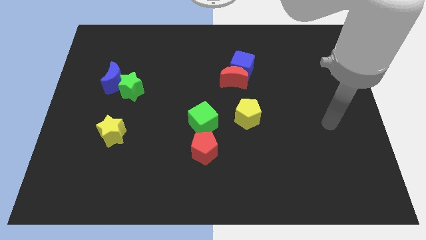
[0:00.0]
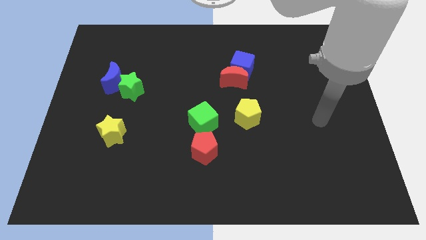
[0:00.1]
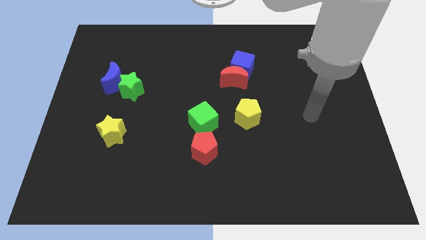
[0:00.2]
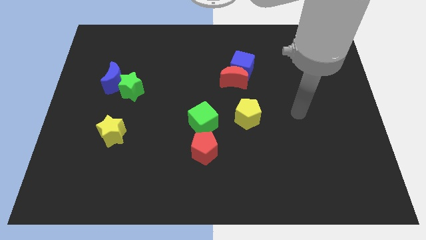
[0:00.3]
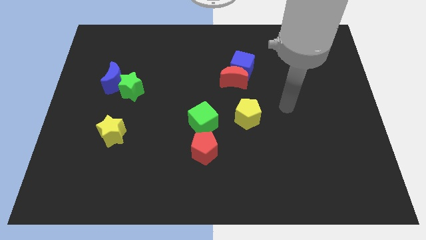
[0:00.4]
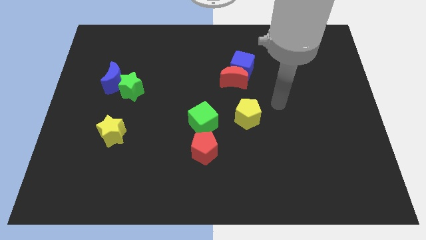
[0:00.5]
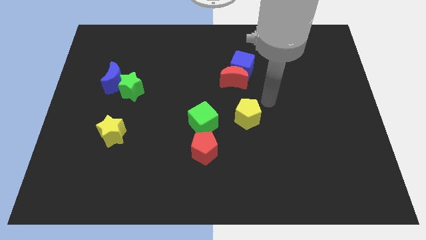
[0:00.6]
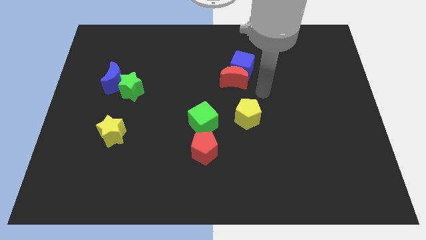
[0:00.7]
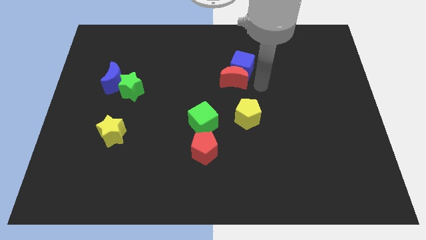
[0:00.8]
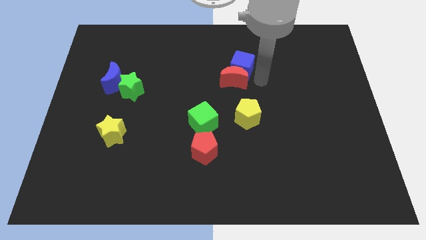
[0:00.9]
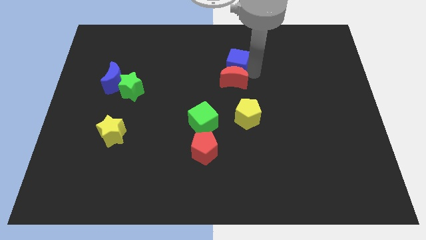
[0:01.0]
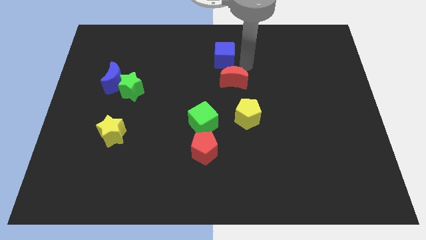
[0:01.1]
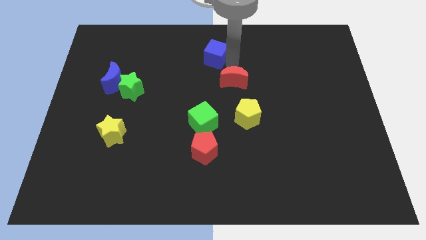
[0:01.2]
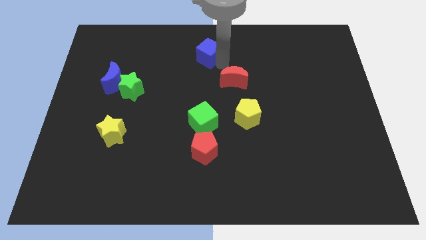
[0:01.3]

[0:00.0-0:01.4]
pull the red moon apart from the blue cube

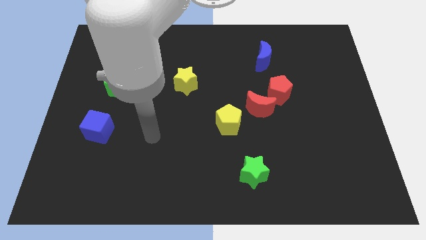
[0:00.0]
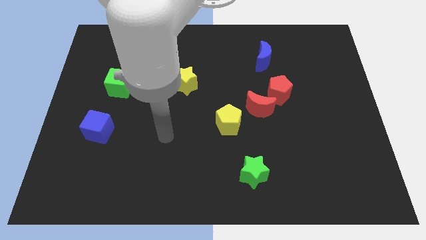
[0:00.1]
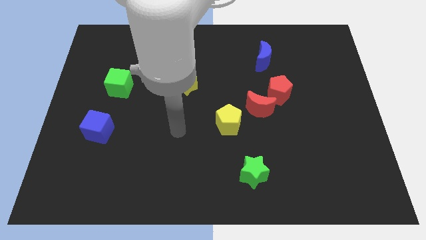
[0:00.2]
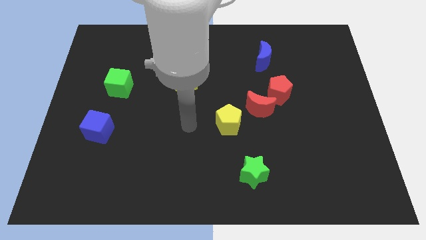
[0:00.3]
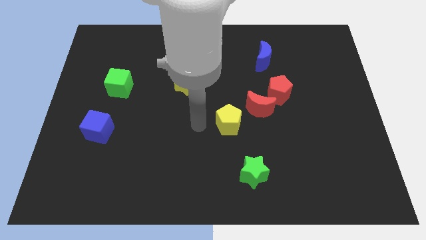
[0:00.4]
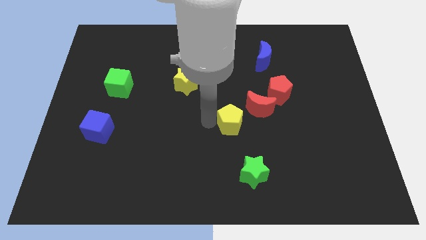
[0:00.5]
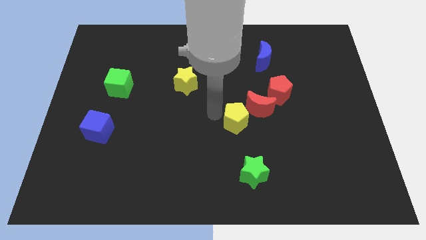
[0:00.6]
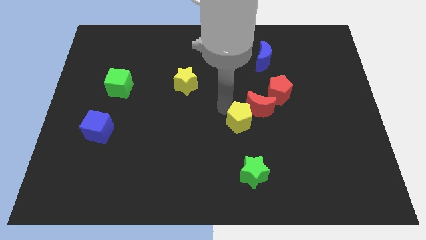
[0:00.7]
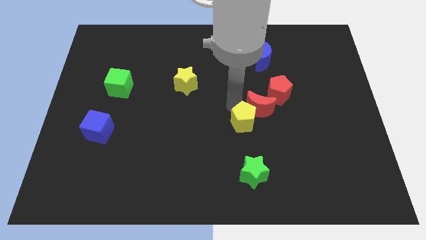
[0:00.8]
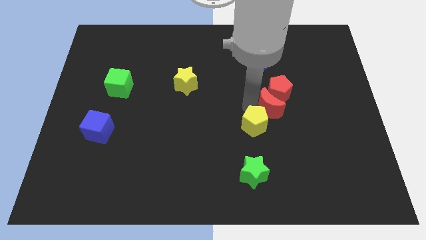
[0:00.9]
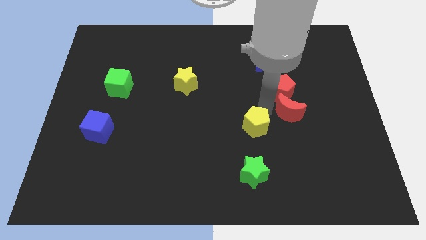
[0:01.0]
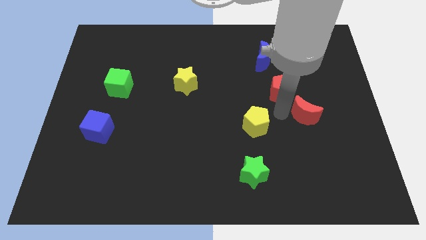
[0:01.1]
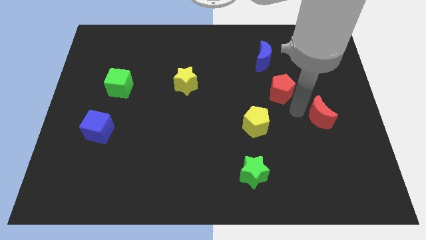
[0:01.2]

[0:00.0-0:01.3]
separate the red pentagon from the red moon

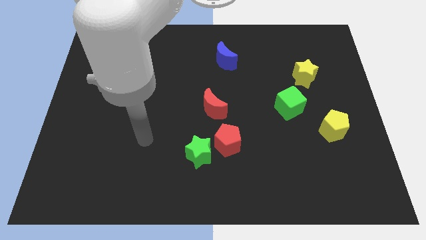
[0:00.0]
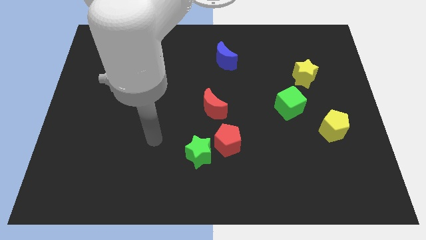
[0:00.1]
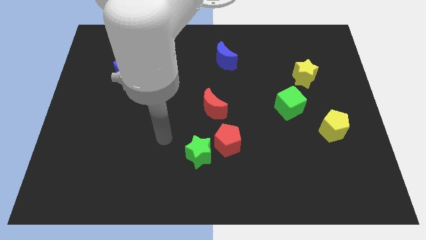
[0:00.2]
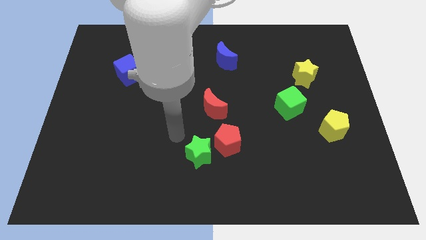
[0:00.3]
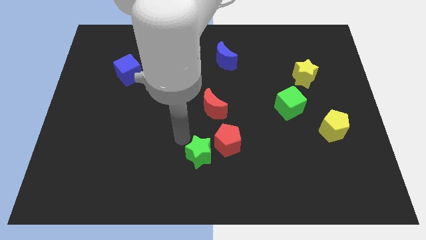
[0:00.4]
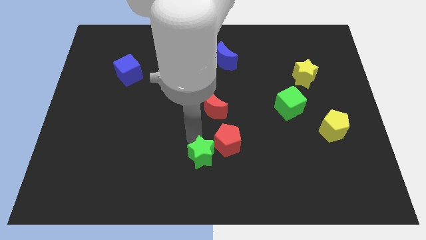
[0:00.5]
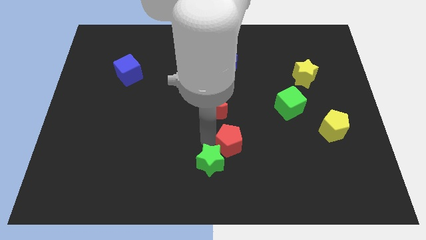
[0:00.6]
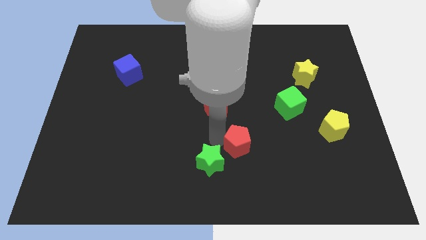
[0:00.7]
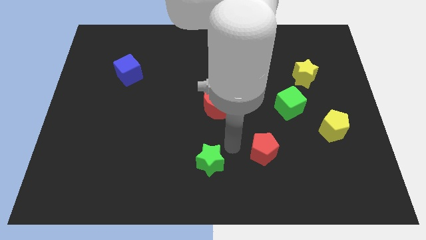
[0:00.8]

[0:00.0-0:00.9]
pull the green star apart from the red pentagon

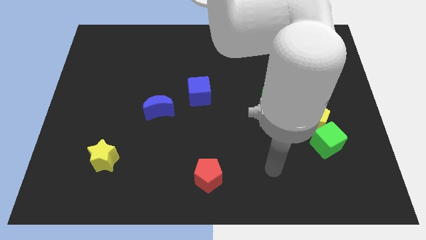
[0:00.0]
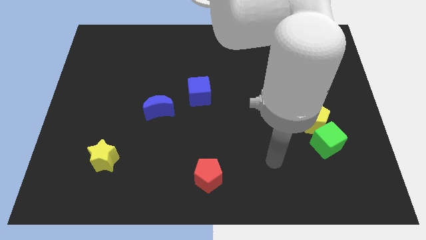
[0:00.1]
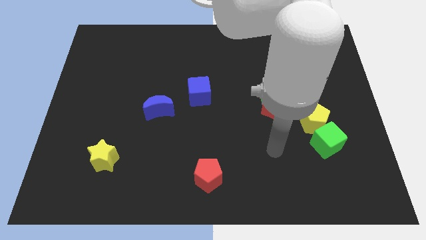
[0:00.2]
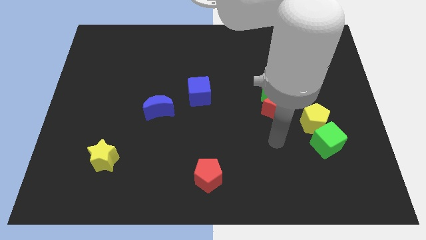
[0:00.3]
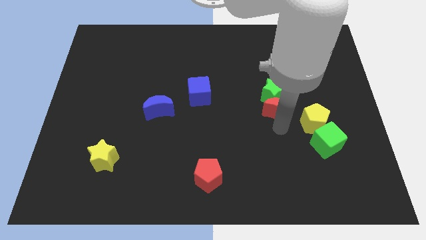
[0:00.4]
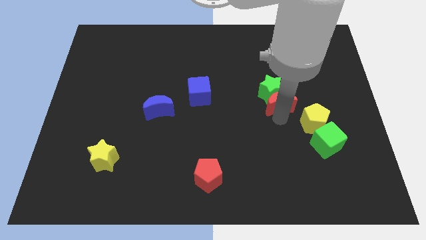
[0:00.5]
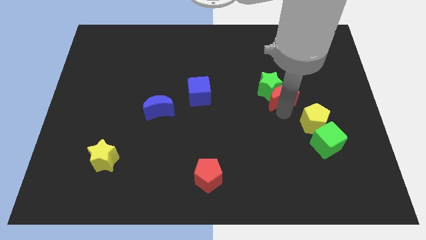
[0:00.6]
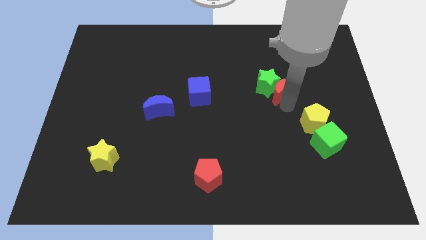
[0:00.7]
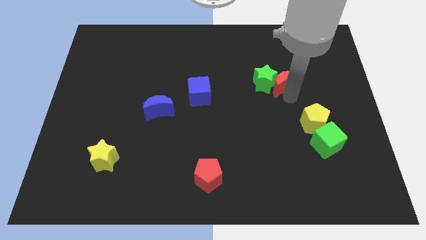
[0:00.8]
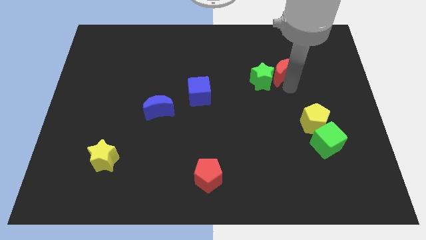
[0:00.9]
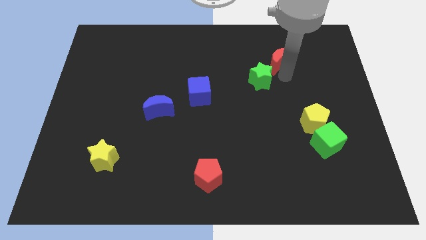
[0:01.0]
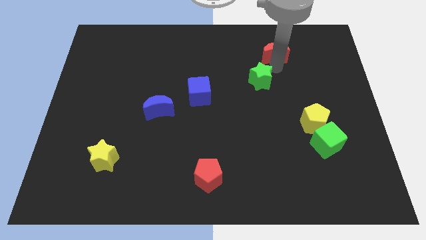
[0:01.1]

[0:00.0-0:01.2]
pull the green star apart from the red moon

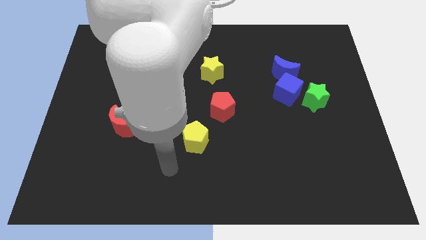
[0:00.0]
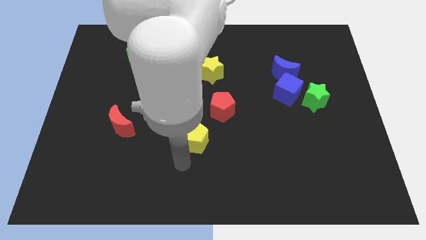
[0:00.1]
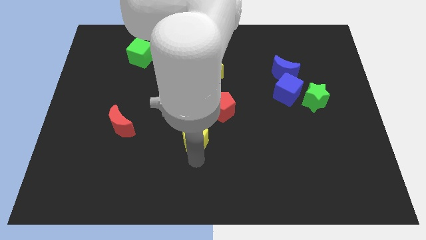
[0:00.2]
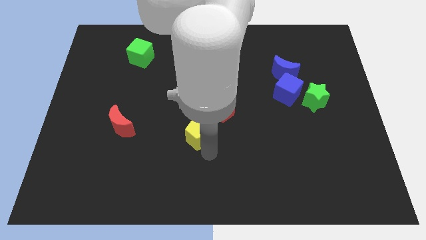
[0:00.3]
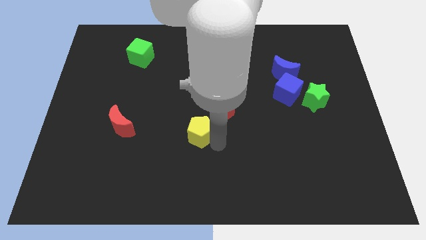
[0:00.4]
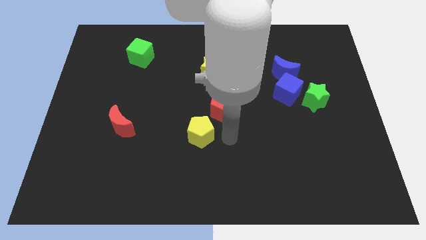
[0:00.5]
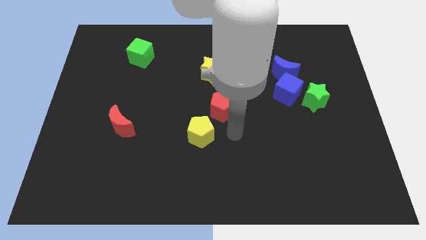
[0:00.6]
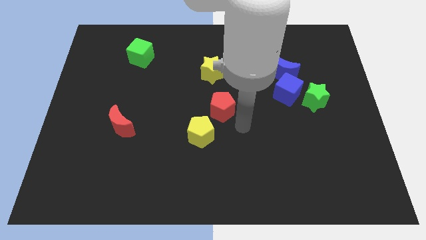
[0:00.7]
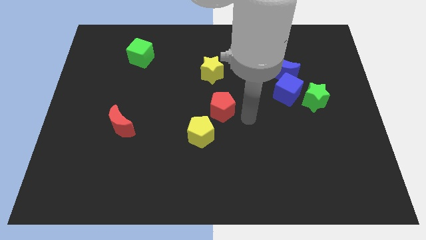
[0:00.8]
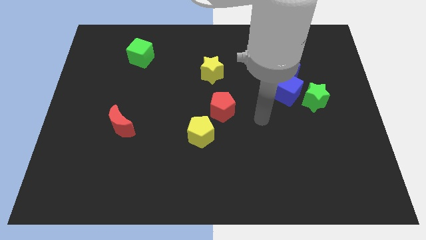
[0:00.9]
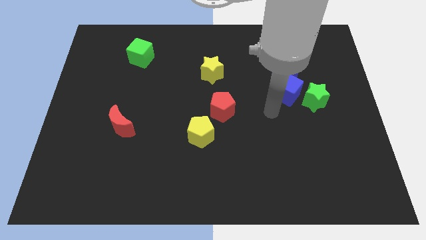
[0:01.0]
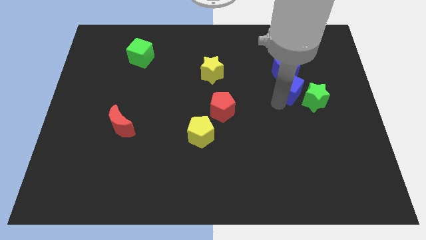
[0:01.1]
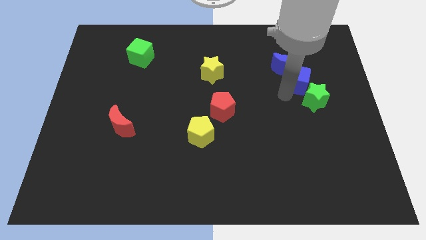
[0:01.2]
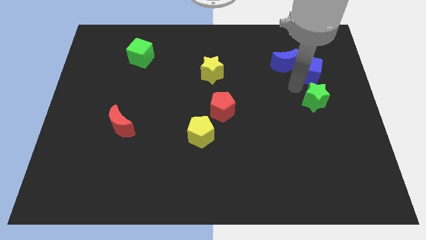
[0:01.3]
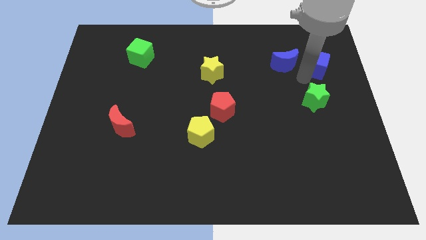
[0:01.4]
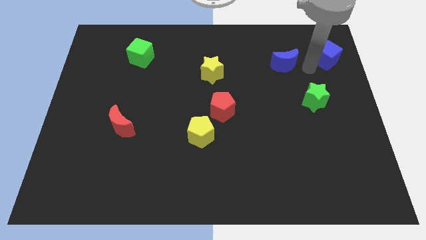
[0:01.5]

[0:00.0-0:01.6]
separate the blue moon from the blue cube

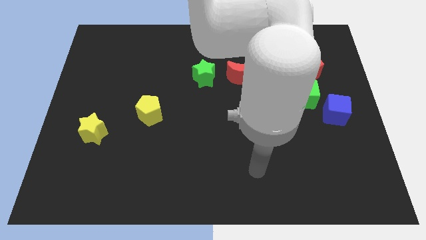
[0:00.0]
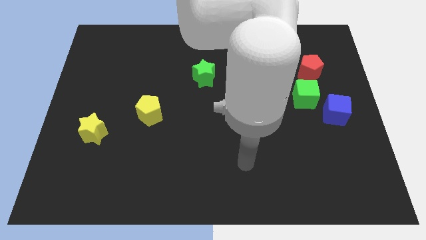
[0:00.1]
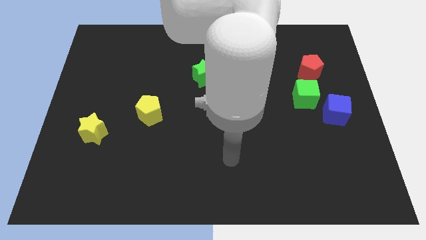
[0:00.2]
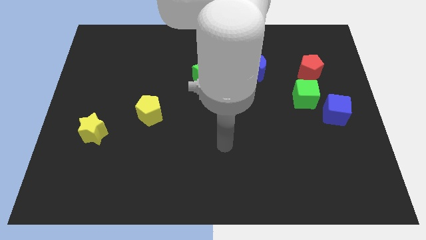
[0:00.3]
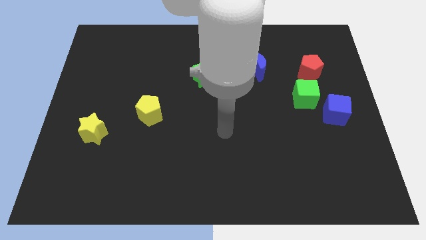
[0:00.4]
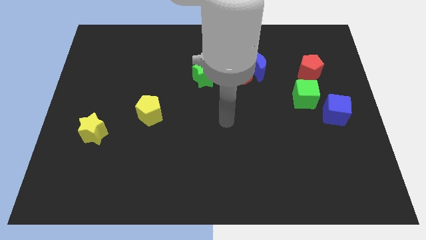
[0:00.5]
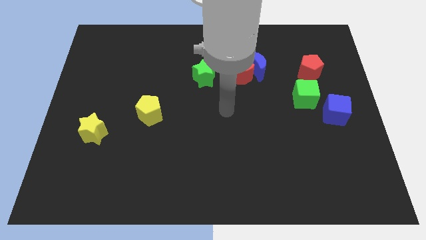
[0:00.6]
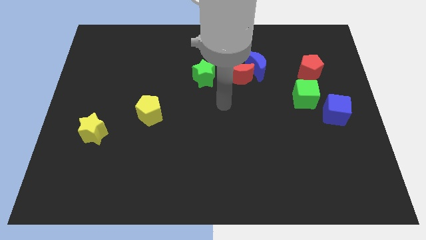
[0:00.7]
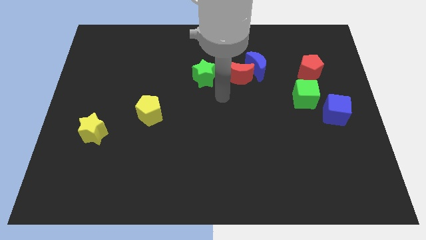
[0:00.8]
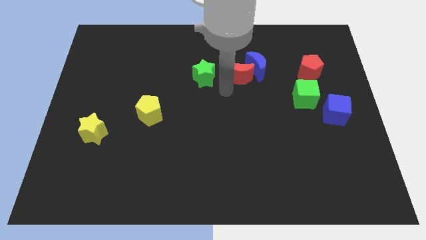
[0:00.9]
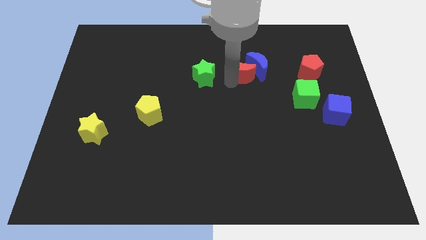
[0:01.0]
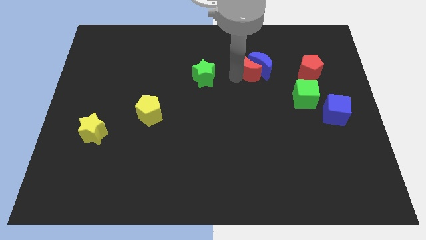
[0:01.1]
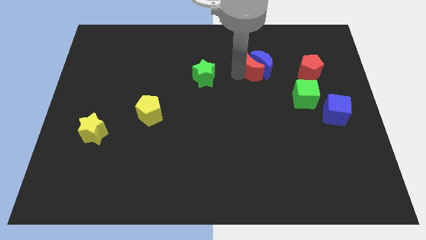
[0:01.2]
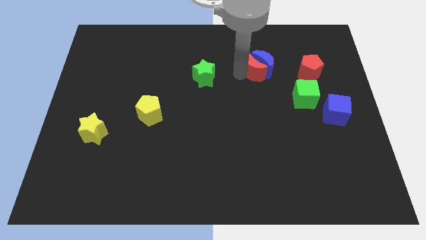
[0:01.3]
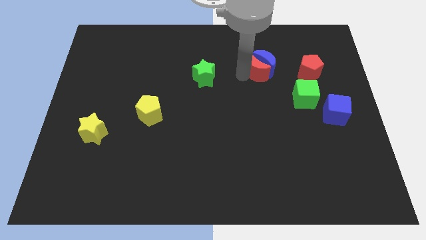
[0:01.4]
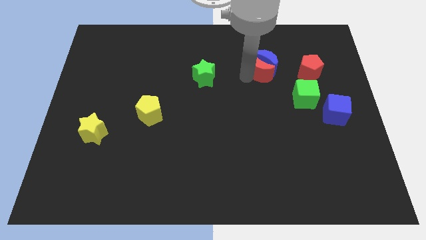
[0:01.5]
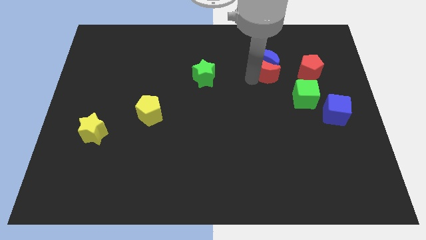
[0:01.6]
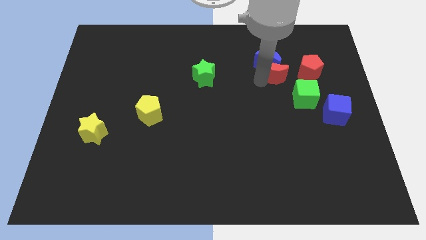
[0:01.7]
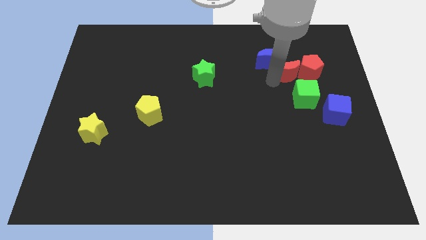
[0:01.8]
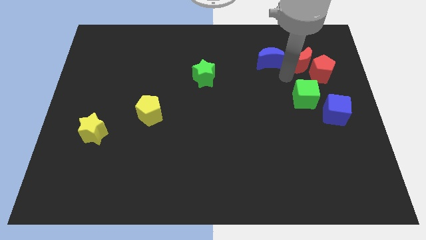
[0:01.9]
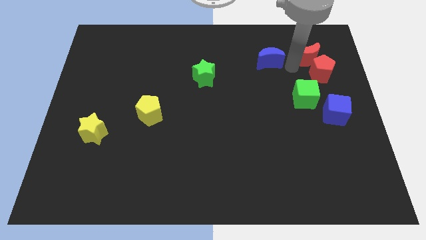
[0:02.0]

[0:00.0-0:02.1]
separate the blue moon from the red moon

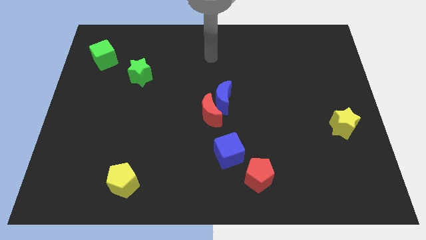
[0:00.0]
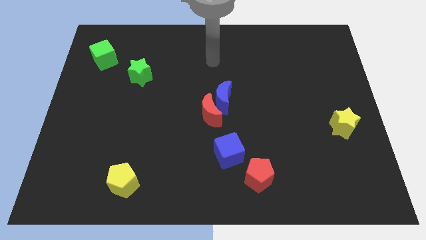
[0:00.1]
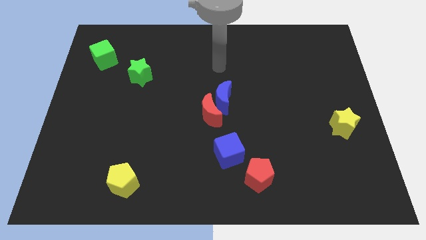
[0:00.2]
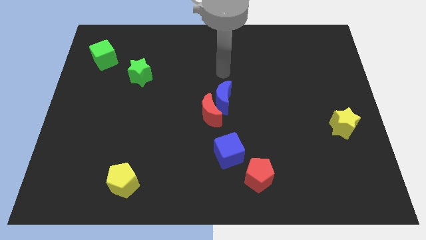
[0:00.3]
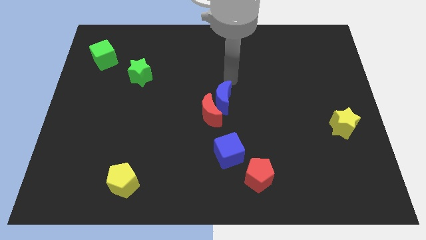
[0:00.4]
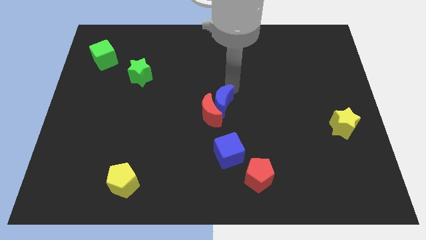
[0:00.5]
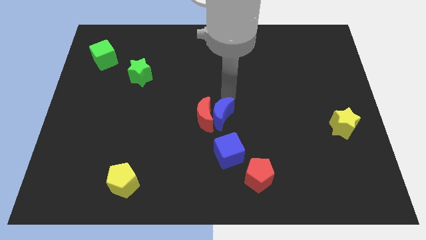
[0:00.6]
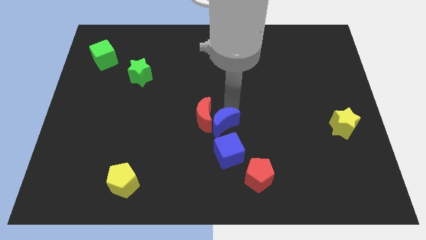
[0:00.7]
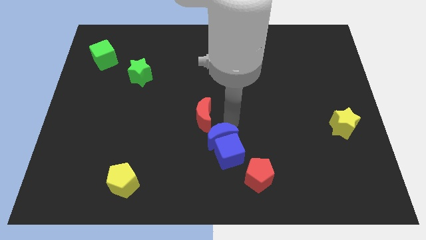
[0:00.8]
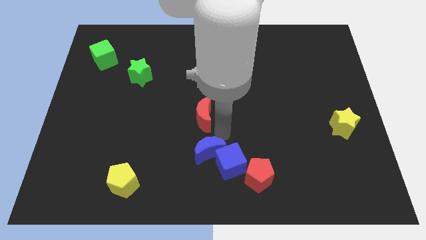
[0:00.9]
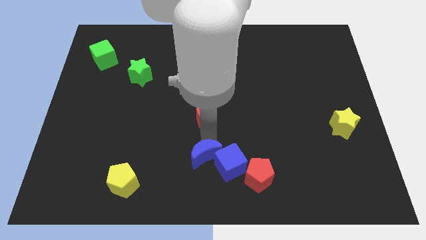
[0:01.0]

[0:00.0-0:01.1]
pull the red moon apart from the blue moon
